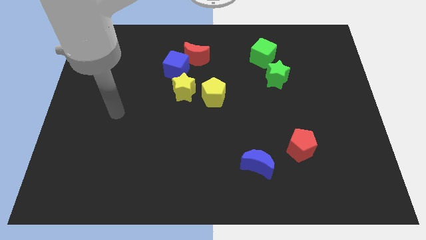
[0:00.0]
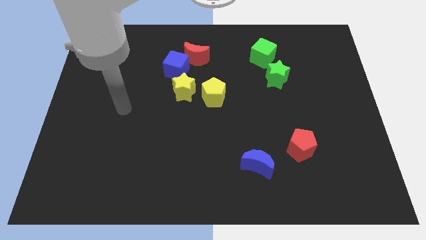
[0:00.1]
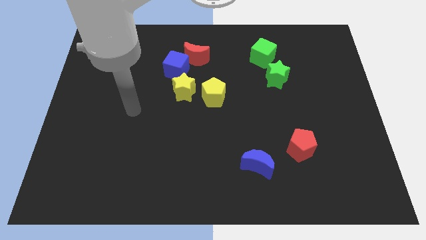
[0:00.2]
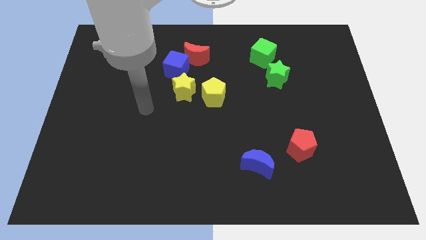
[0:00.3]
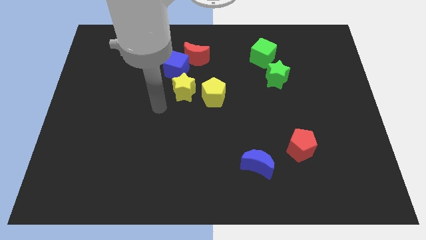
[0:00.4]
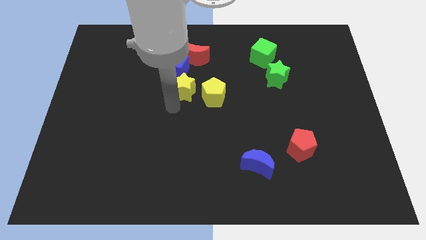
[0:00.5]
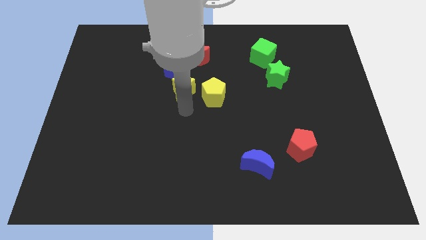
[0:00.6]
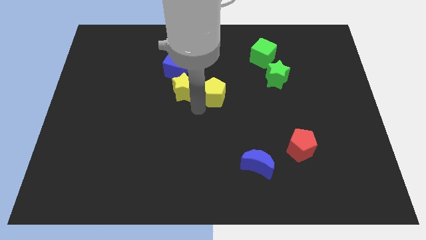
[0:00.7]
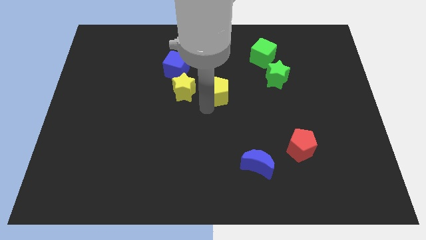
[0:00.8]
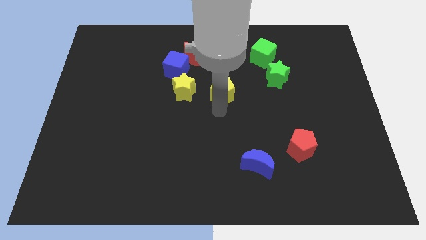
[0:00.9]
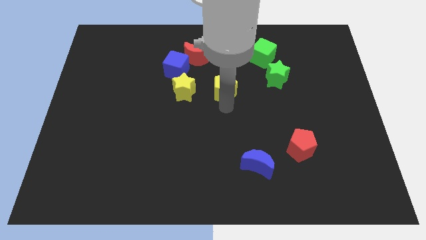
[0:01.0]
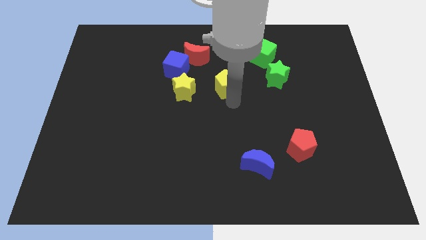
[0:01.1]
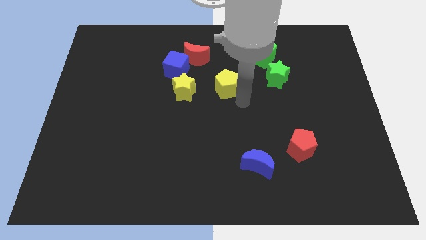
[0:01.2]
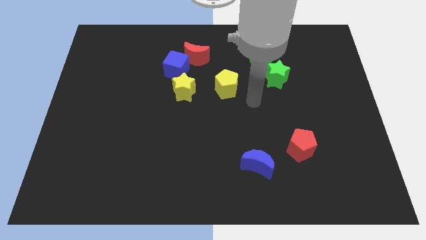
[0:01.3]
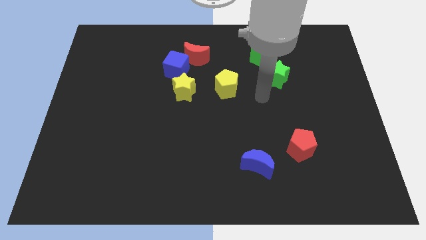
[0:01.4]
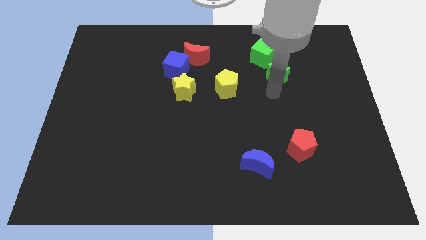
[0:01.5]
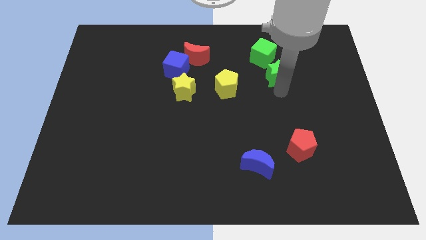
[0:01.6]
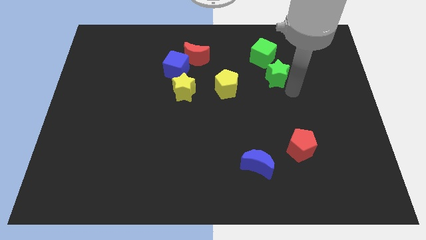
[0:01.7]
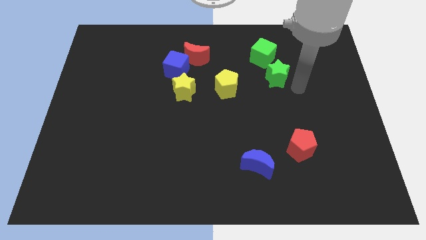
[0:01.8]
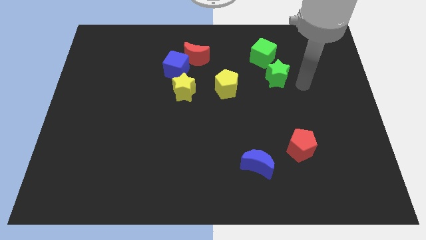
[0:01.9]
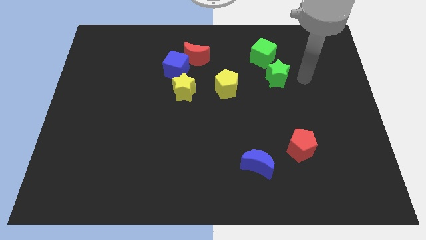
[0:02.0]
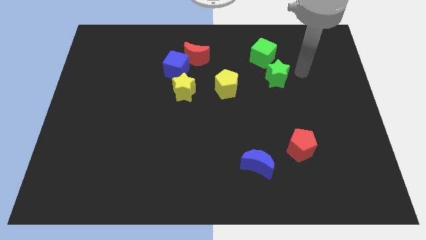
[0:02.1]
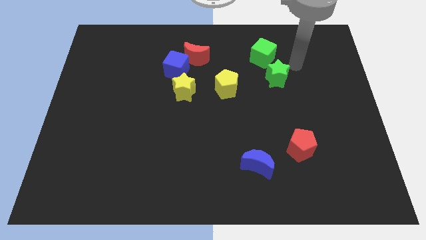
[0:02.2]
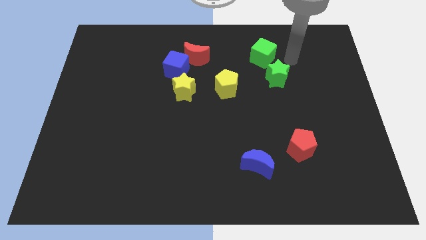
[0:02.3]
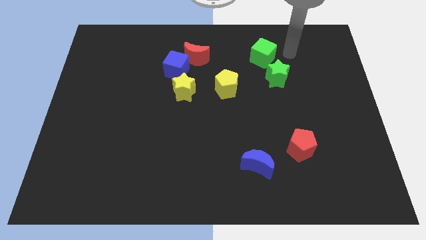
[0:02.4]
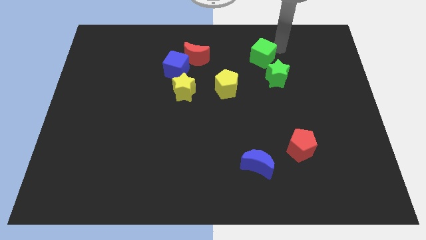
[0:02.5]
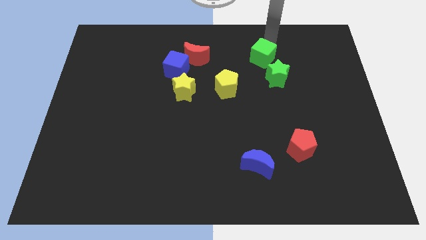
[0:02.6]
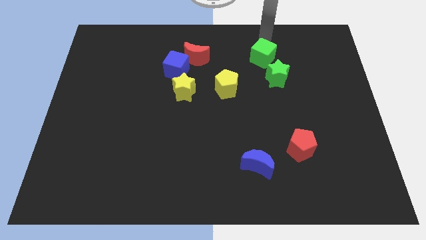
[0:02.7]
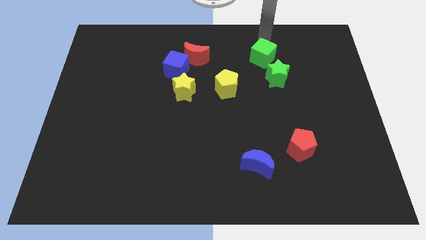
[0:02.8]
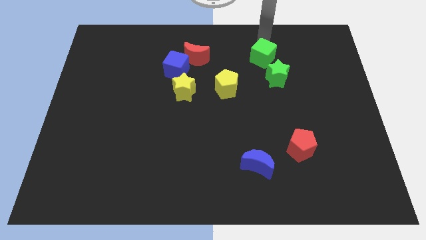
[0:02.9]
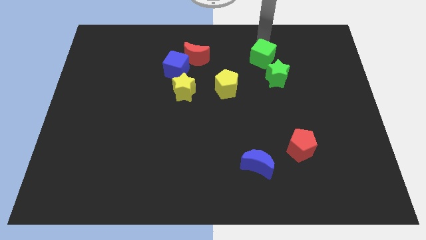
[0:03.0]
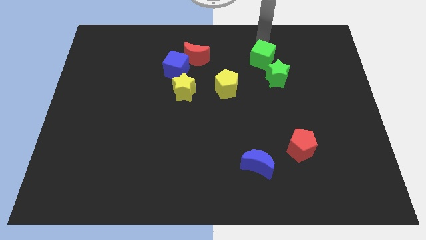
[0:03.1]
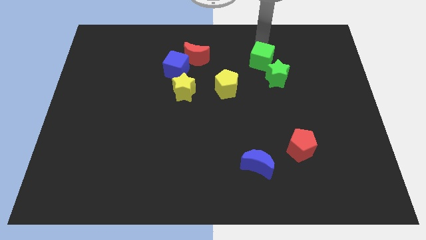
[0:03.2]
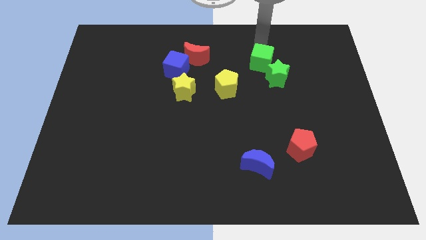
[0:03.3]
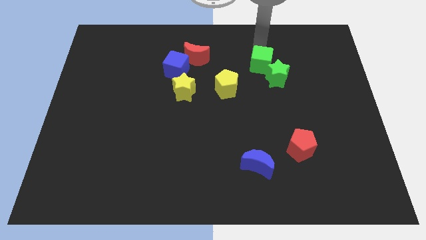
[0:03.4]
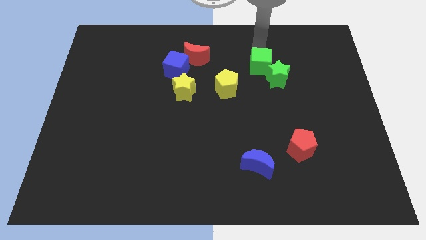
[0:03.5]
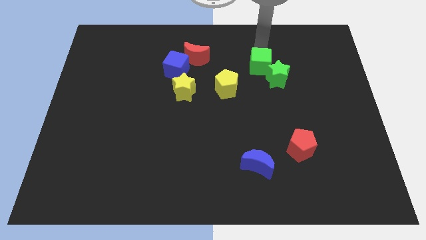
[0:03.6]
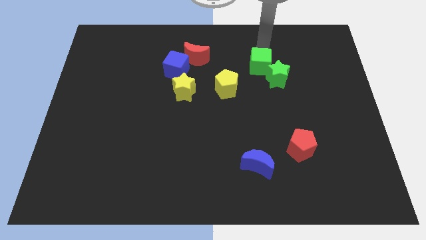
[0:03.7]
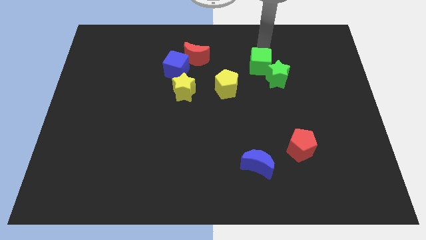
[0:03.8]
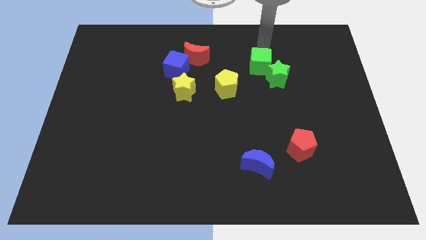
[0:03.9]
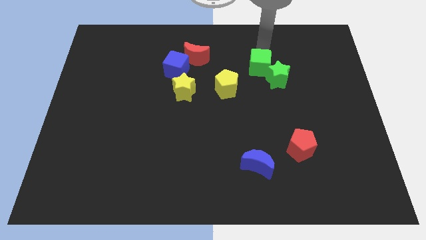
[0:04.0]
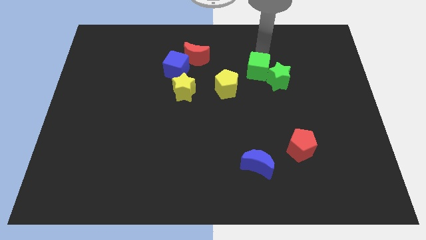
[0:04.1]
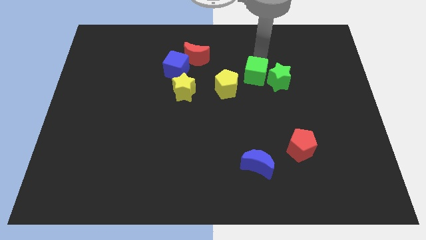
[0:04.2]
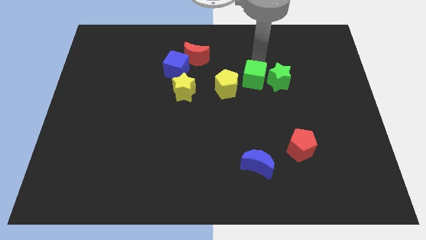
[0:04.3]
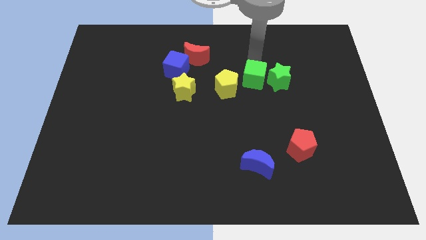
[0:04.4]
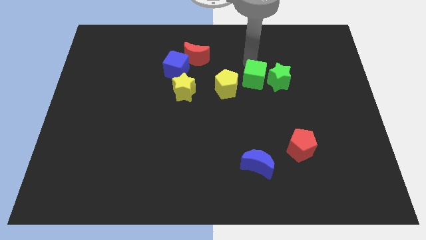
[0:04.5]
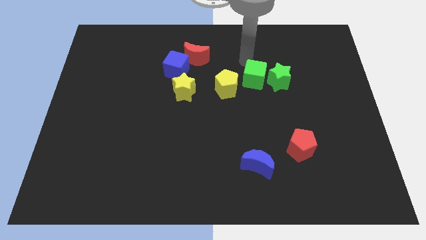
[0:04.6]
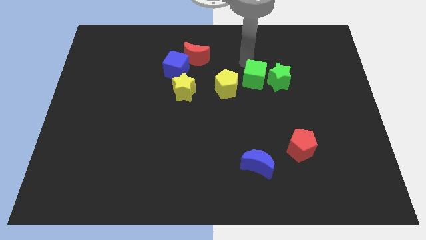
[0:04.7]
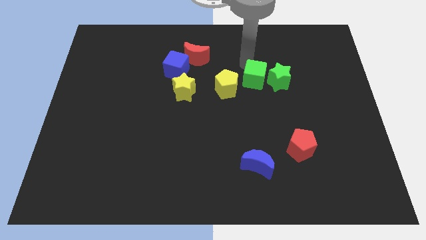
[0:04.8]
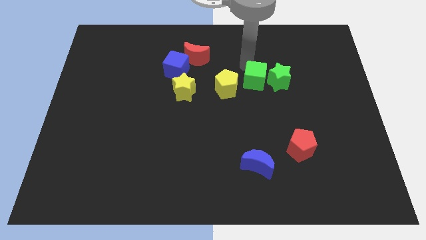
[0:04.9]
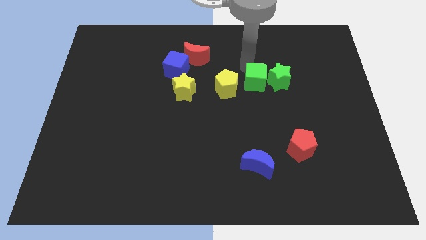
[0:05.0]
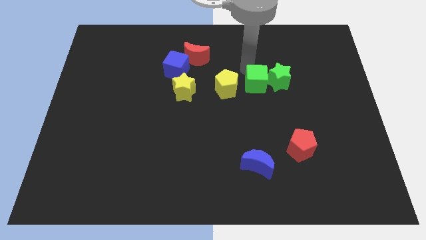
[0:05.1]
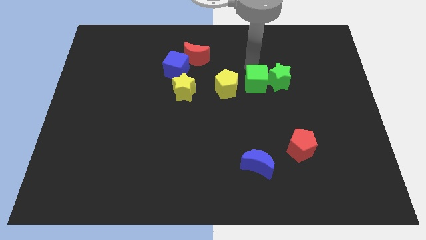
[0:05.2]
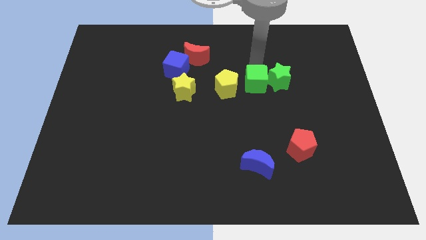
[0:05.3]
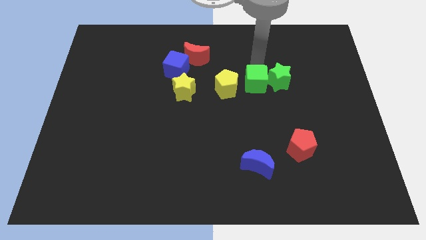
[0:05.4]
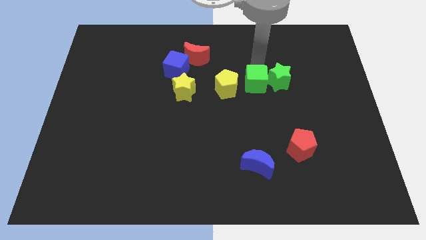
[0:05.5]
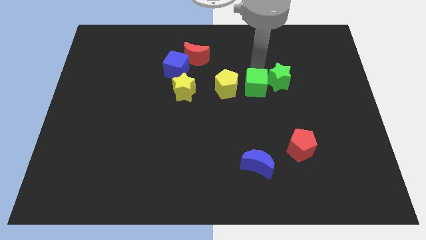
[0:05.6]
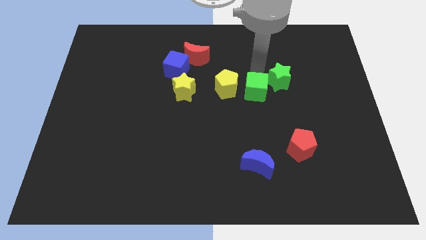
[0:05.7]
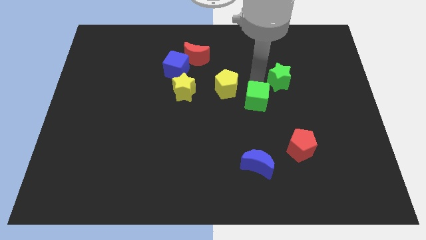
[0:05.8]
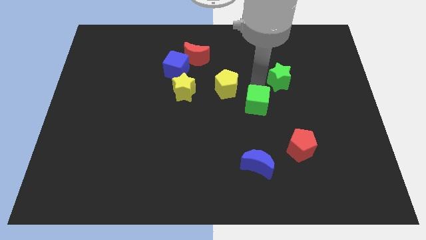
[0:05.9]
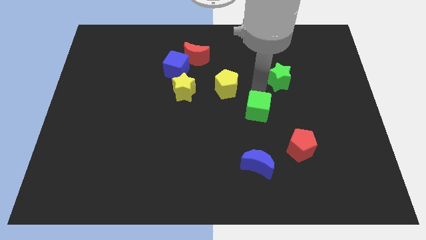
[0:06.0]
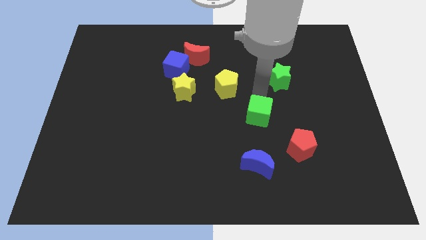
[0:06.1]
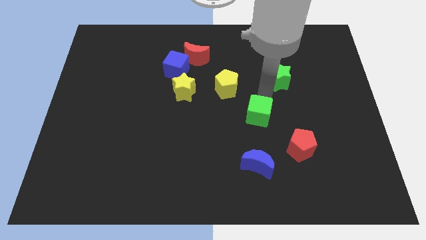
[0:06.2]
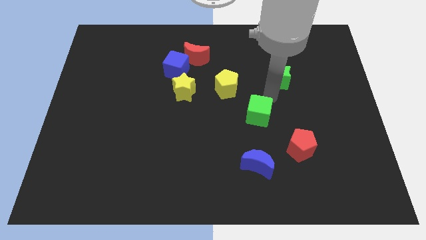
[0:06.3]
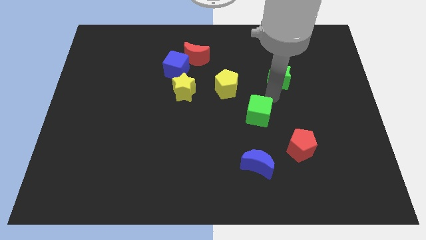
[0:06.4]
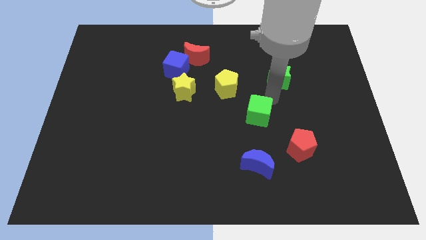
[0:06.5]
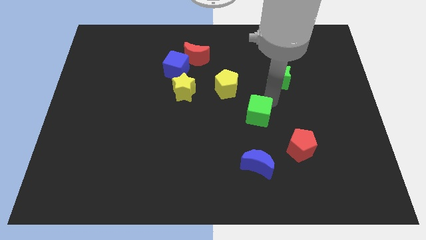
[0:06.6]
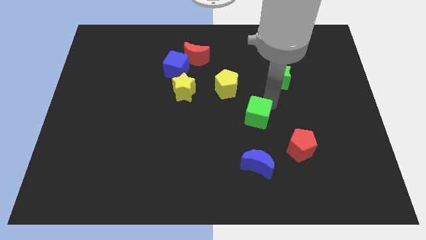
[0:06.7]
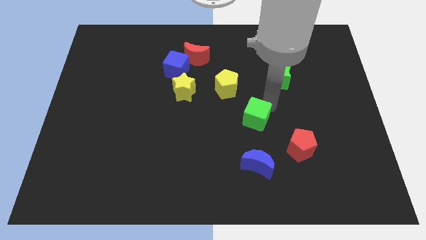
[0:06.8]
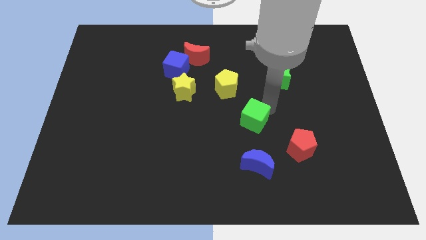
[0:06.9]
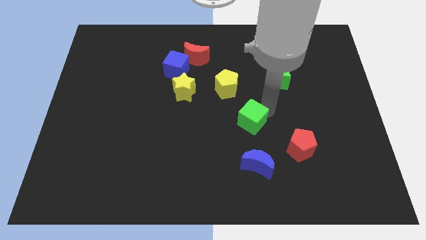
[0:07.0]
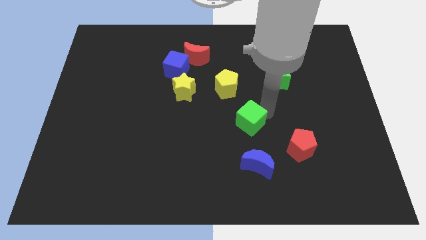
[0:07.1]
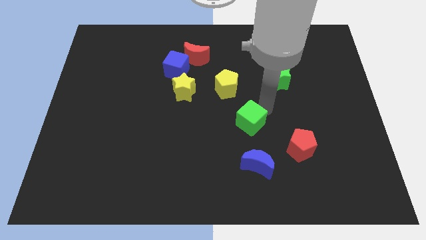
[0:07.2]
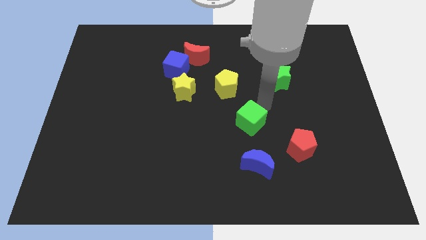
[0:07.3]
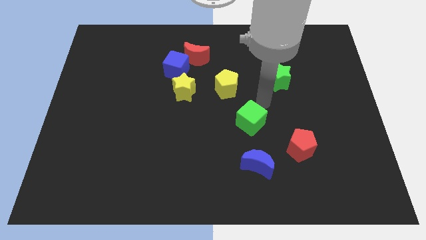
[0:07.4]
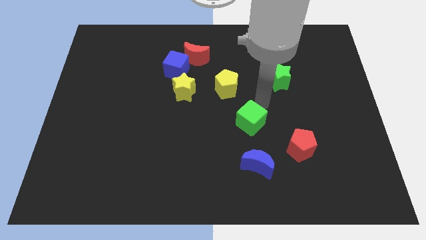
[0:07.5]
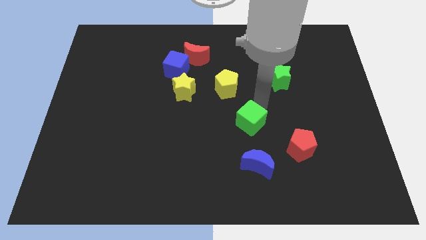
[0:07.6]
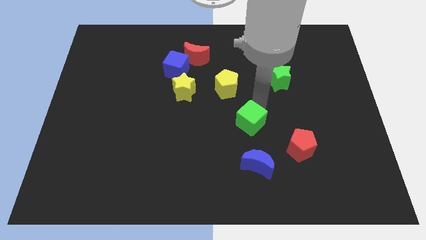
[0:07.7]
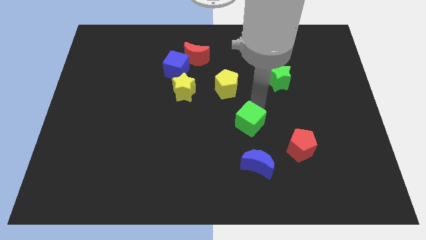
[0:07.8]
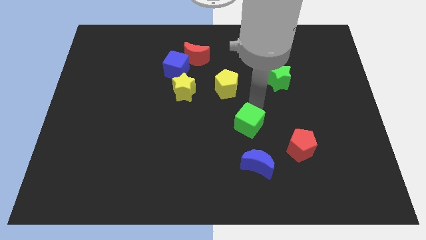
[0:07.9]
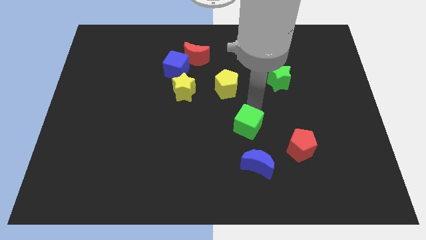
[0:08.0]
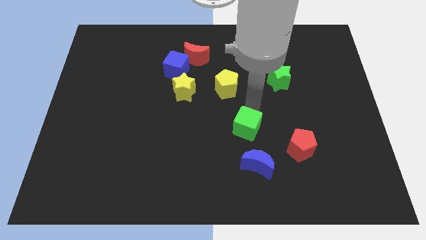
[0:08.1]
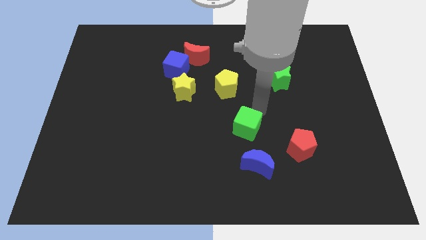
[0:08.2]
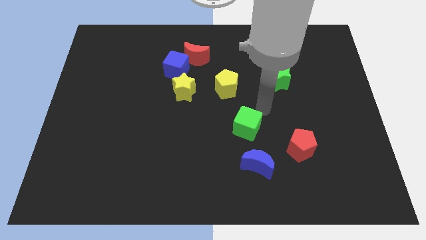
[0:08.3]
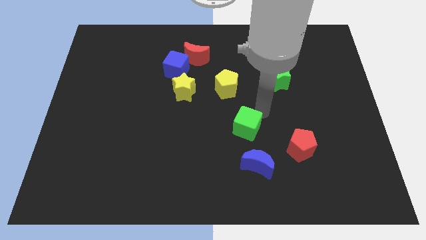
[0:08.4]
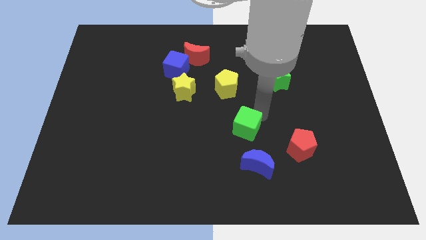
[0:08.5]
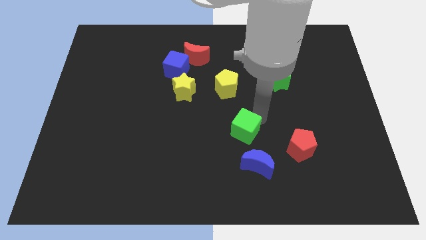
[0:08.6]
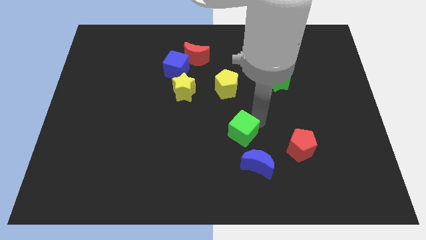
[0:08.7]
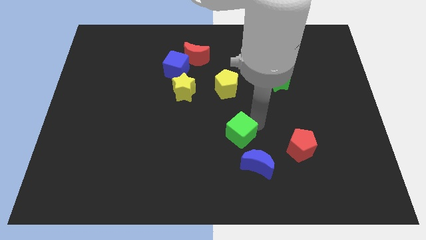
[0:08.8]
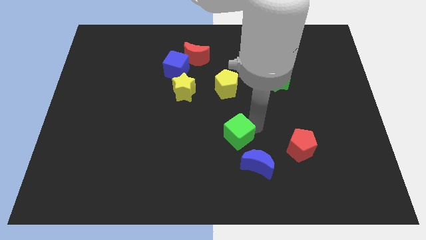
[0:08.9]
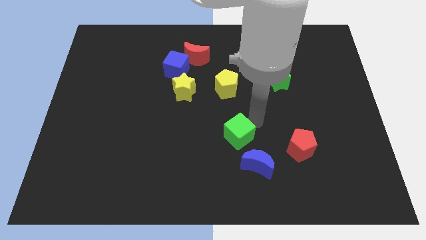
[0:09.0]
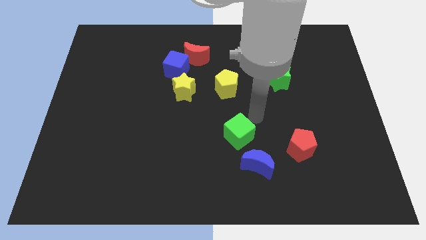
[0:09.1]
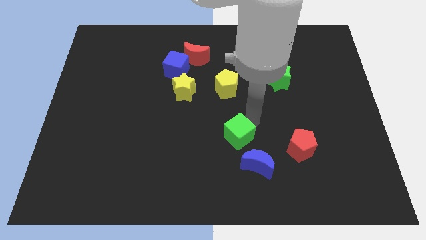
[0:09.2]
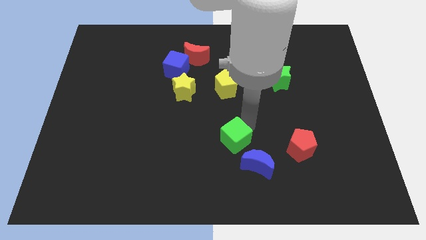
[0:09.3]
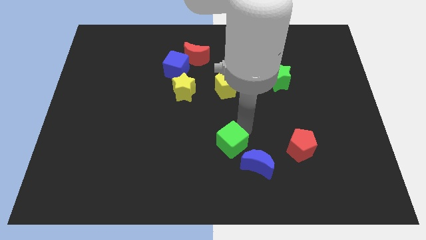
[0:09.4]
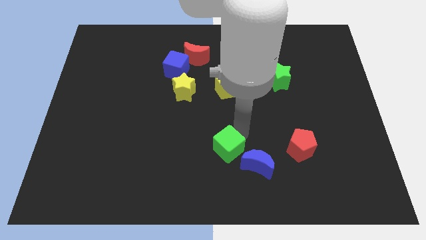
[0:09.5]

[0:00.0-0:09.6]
move the green cube just left of the blue moon
